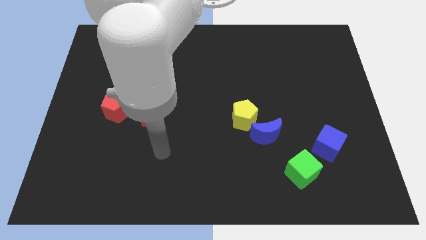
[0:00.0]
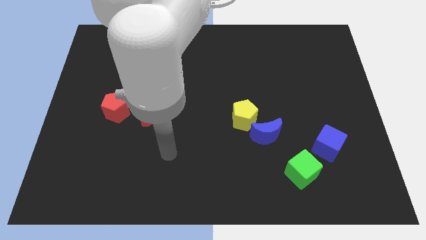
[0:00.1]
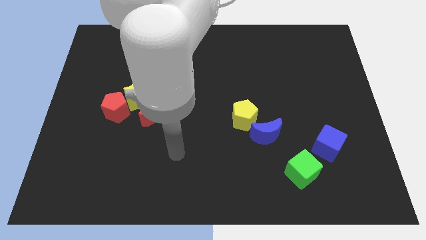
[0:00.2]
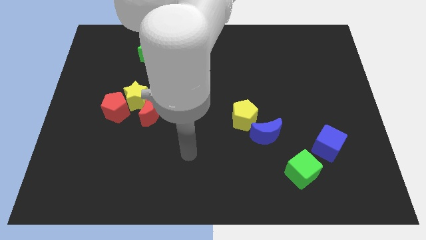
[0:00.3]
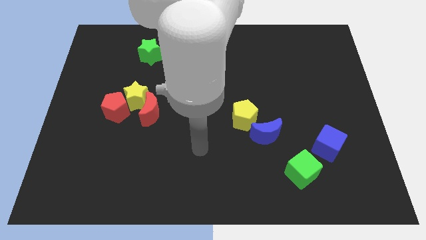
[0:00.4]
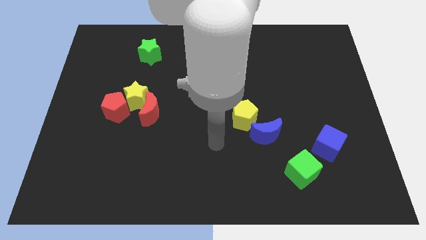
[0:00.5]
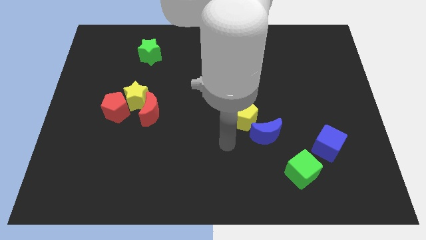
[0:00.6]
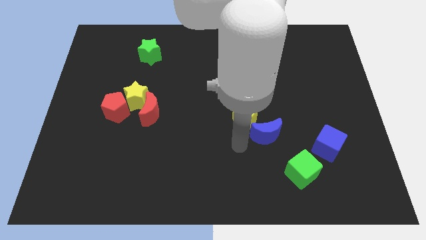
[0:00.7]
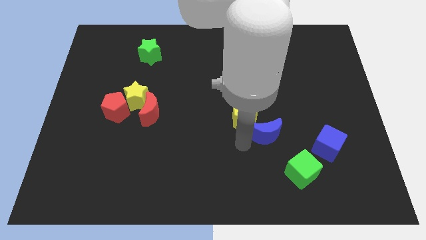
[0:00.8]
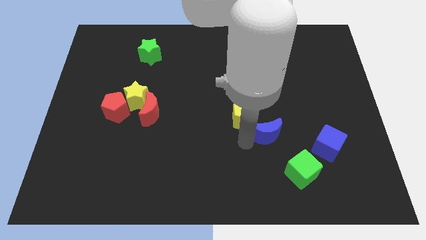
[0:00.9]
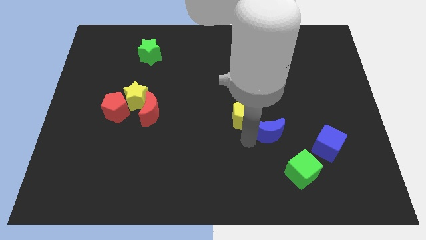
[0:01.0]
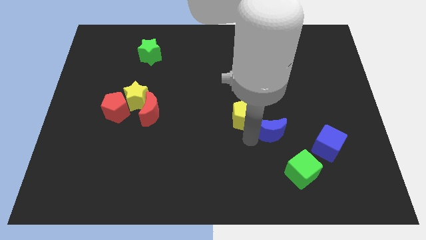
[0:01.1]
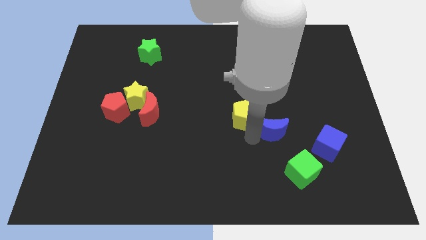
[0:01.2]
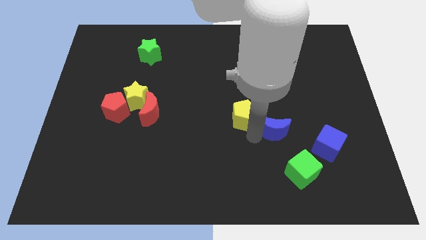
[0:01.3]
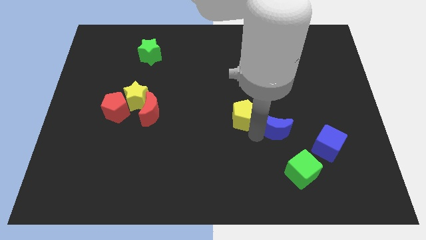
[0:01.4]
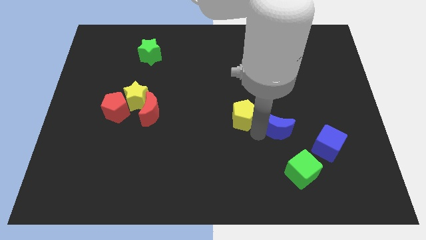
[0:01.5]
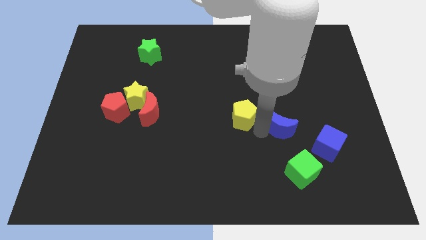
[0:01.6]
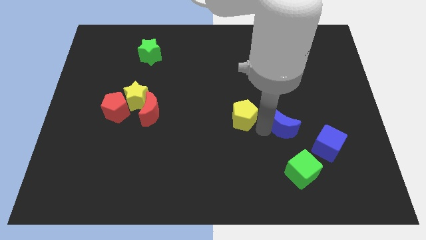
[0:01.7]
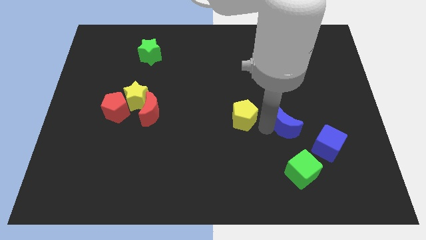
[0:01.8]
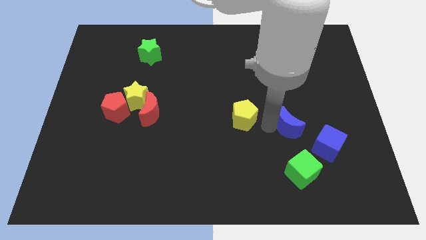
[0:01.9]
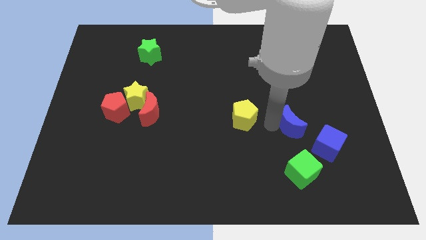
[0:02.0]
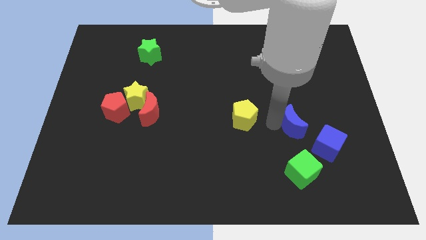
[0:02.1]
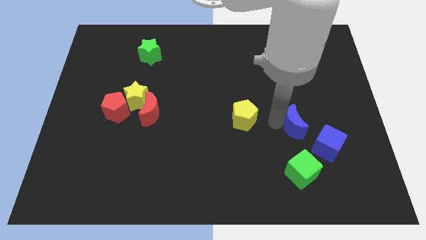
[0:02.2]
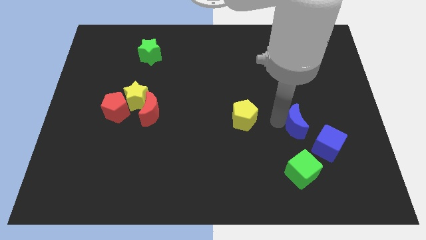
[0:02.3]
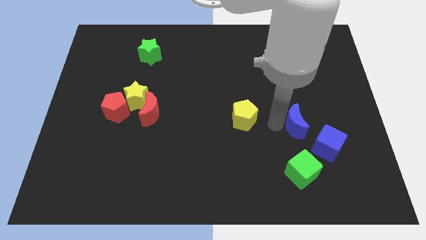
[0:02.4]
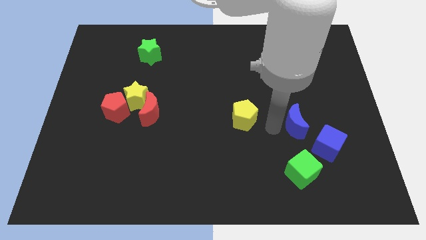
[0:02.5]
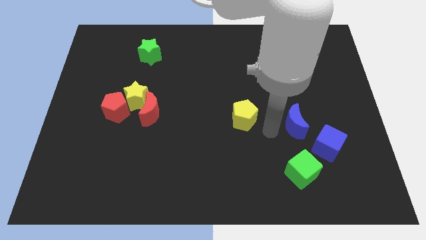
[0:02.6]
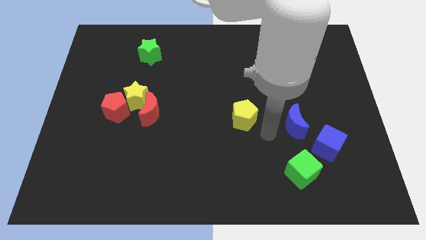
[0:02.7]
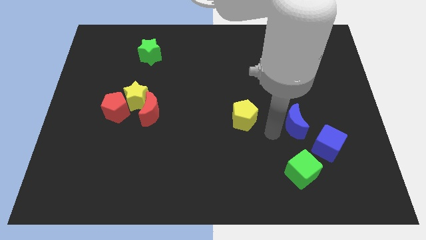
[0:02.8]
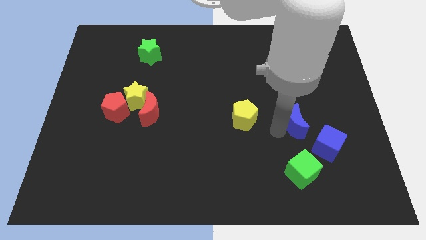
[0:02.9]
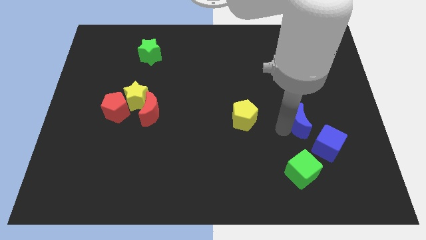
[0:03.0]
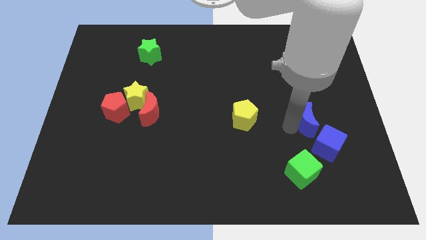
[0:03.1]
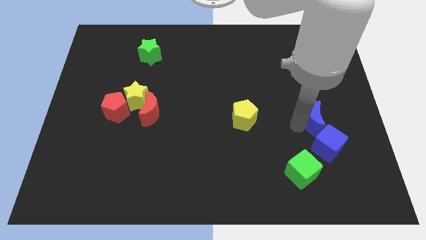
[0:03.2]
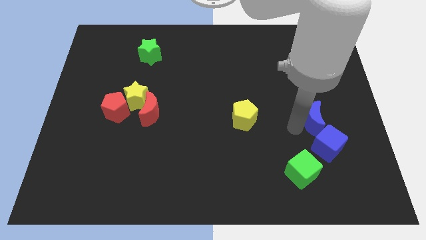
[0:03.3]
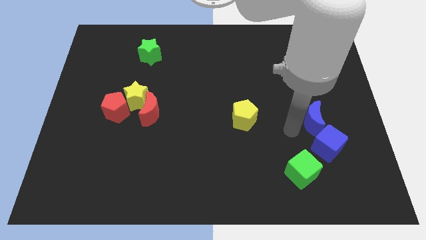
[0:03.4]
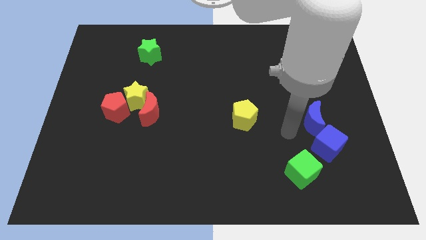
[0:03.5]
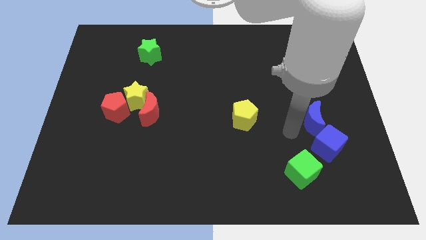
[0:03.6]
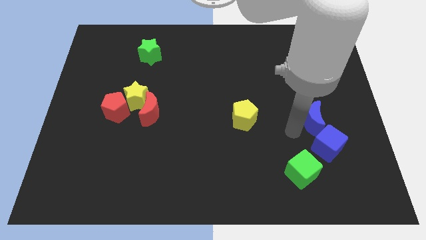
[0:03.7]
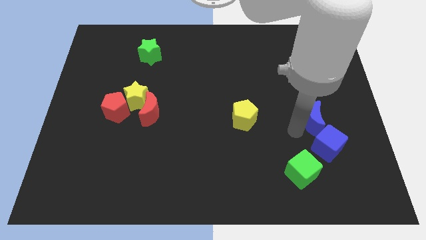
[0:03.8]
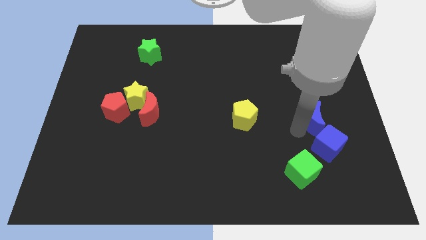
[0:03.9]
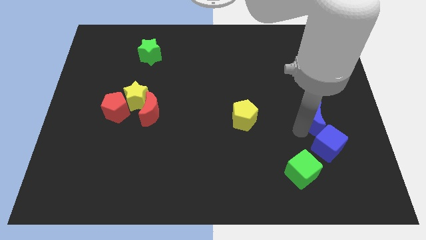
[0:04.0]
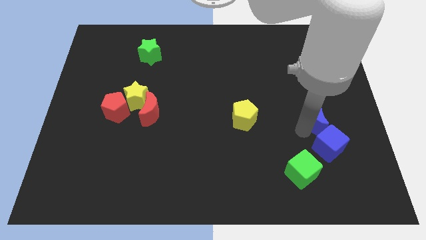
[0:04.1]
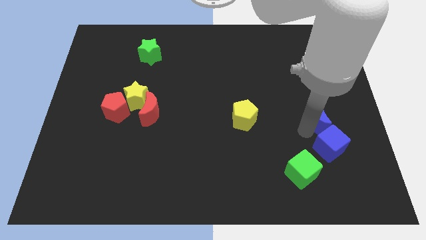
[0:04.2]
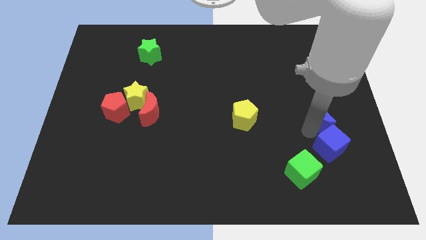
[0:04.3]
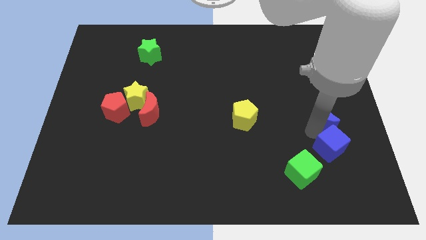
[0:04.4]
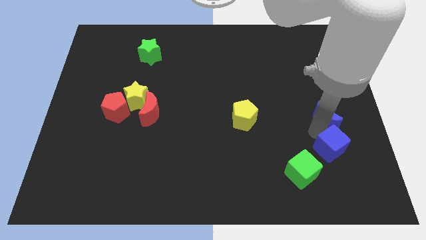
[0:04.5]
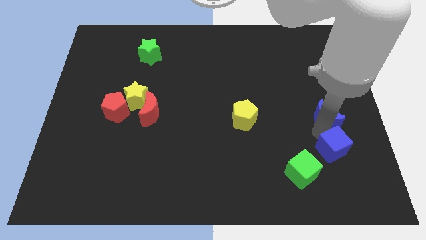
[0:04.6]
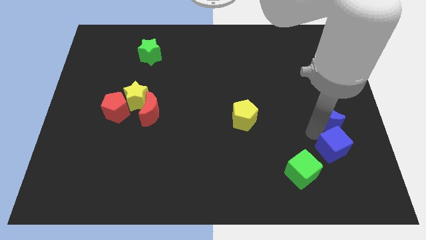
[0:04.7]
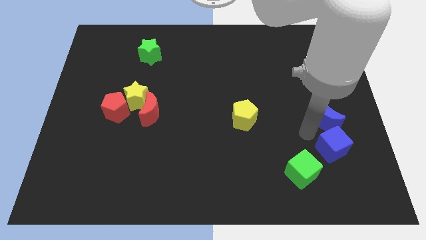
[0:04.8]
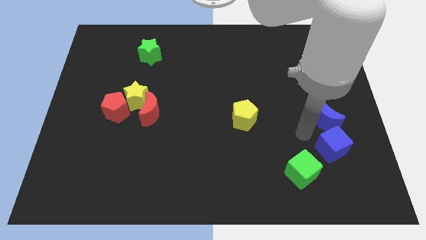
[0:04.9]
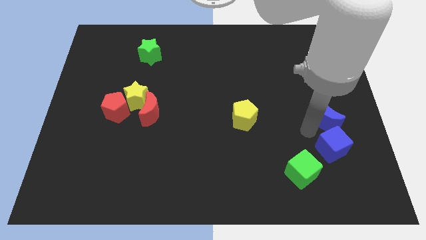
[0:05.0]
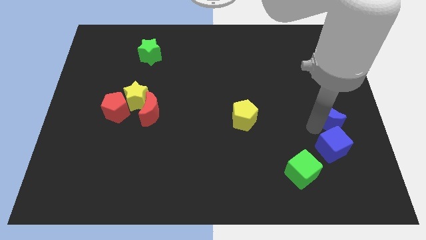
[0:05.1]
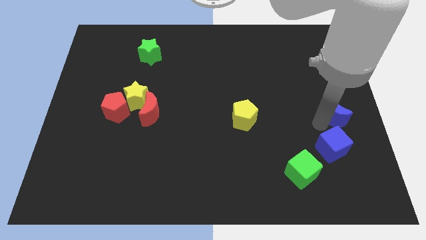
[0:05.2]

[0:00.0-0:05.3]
push the blue moon to the right side of the board

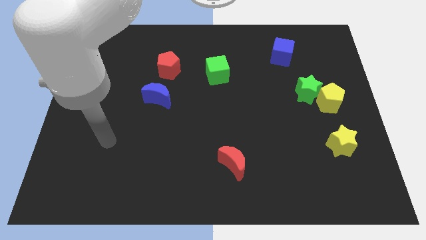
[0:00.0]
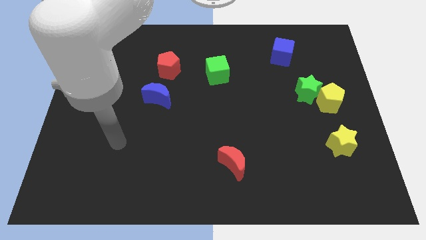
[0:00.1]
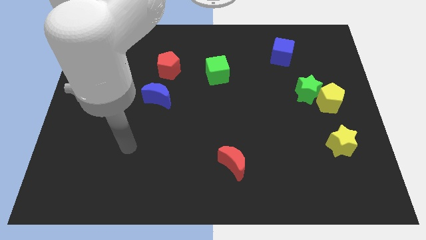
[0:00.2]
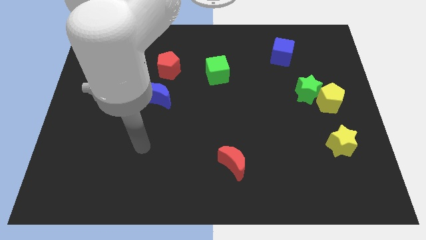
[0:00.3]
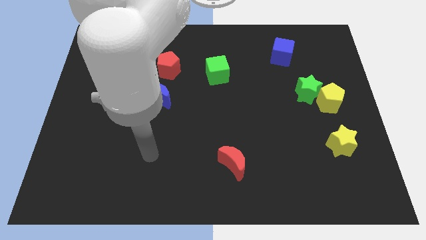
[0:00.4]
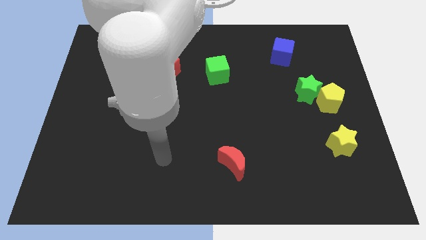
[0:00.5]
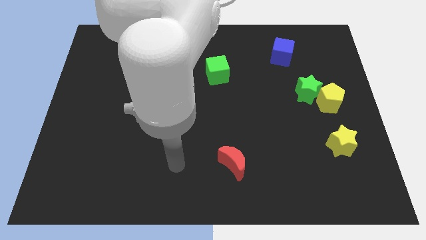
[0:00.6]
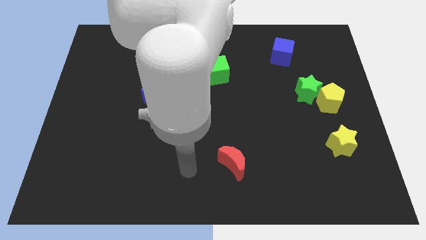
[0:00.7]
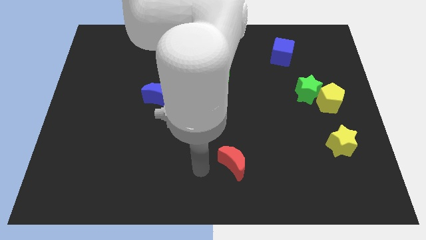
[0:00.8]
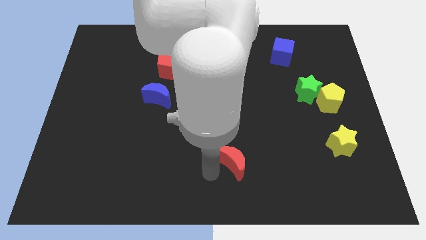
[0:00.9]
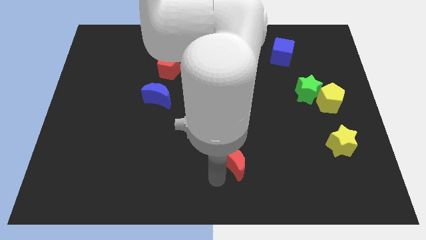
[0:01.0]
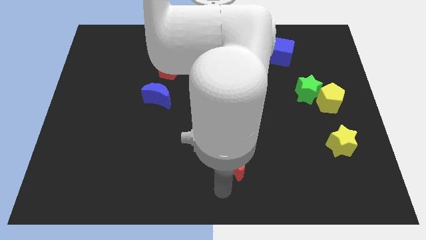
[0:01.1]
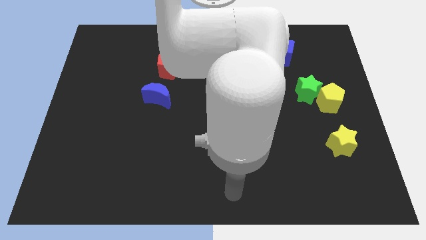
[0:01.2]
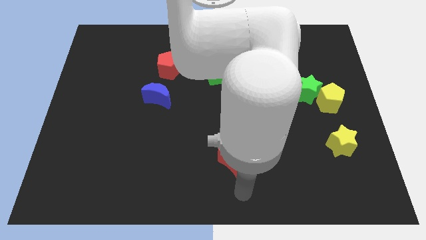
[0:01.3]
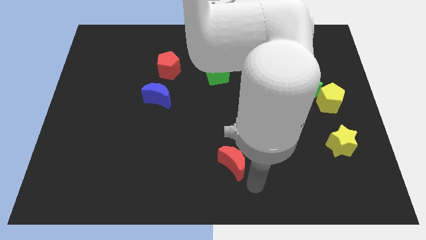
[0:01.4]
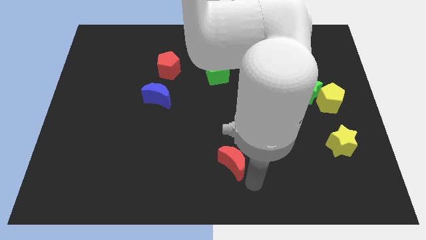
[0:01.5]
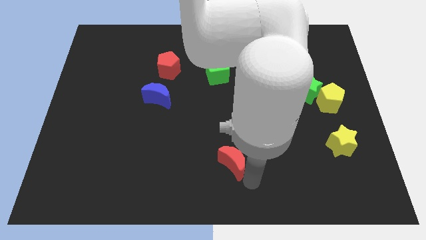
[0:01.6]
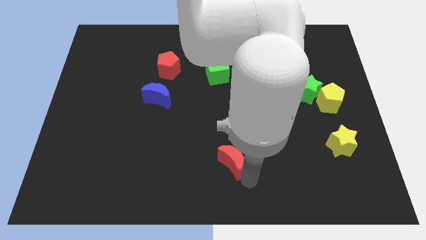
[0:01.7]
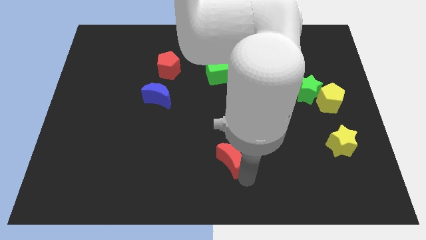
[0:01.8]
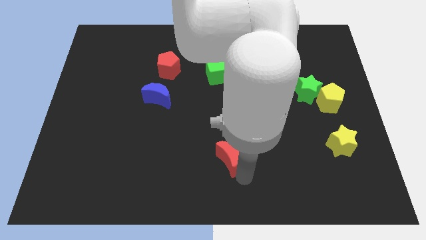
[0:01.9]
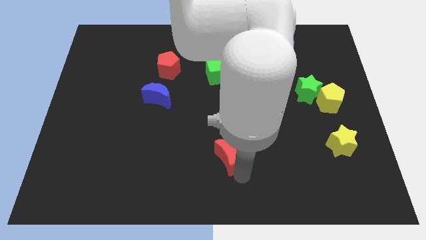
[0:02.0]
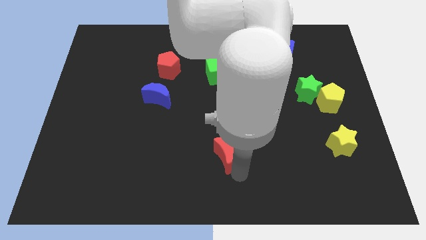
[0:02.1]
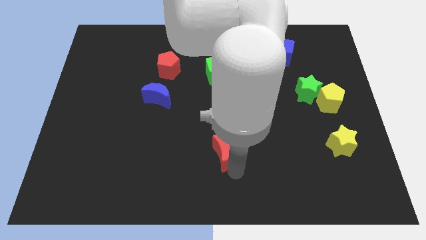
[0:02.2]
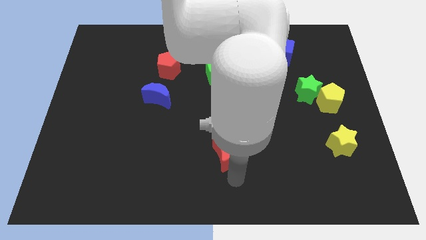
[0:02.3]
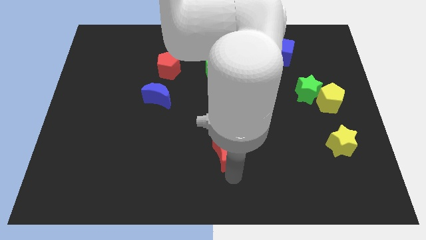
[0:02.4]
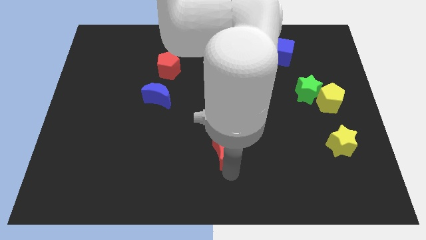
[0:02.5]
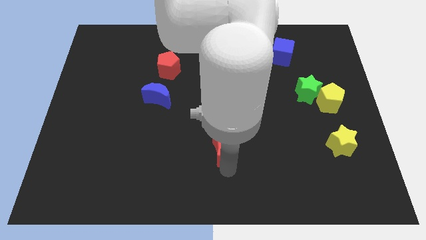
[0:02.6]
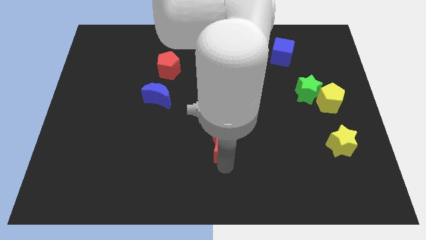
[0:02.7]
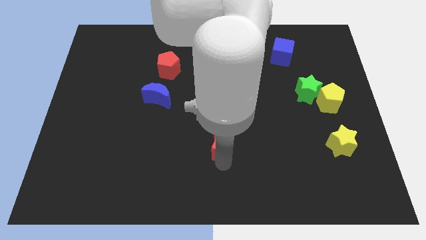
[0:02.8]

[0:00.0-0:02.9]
move the red moon to the middle
